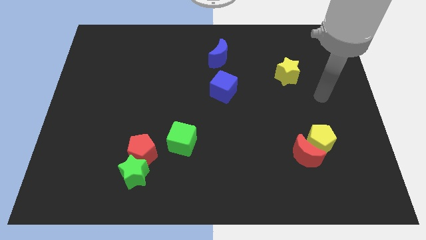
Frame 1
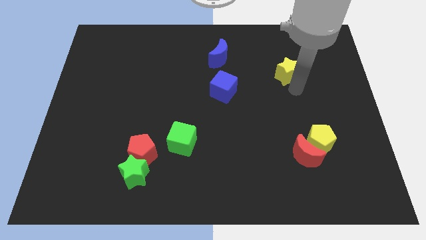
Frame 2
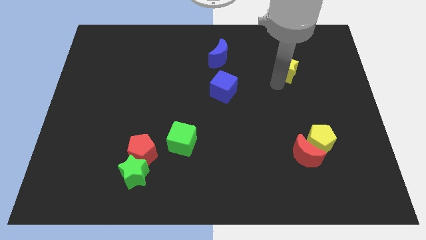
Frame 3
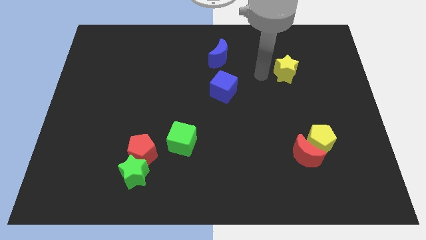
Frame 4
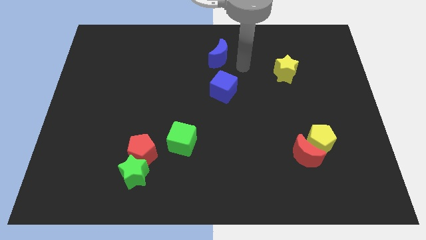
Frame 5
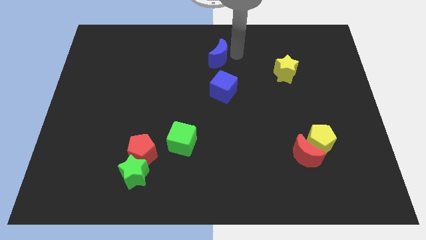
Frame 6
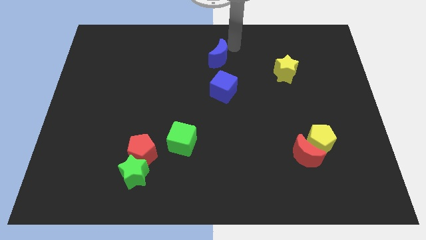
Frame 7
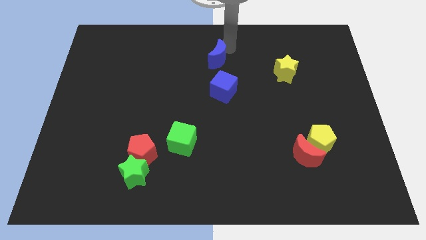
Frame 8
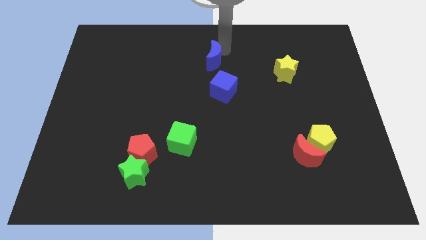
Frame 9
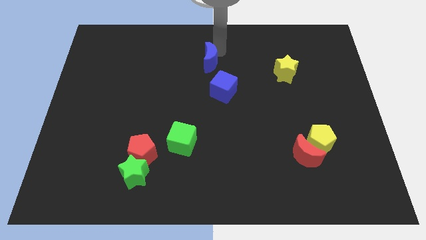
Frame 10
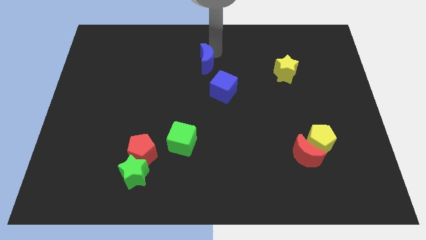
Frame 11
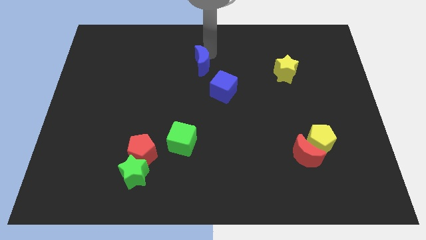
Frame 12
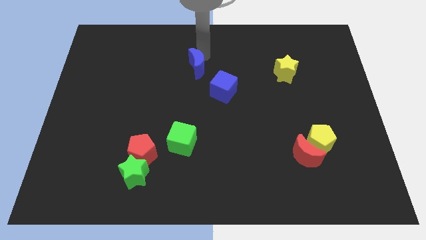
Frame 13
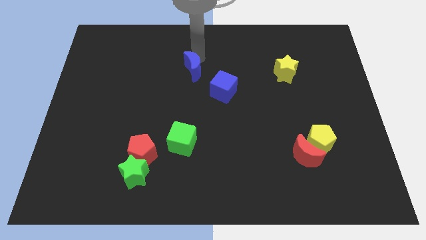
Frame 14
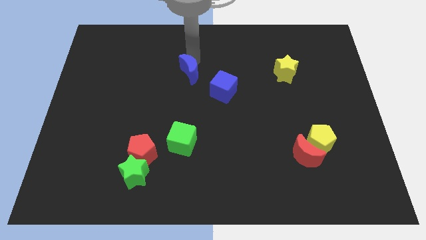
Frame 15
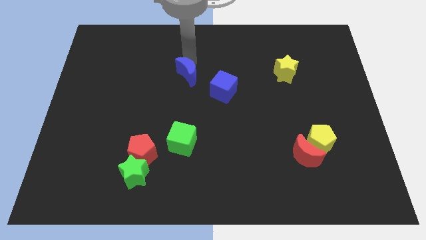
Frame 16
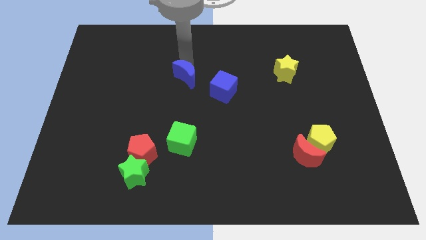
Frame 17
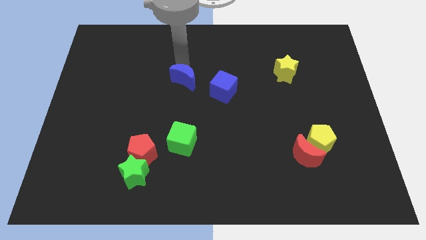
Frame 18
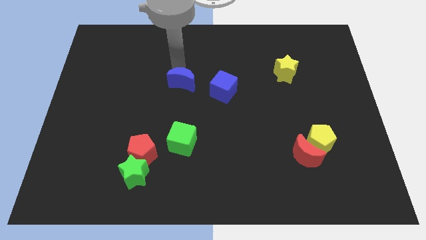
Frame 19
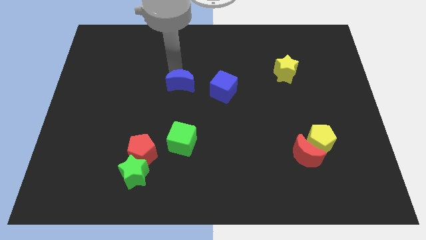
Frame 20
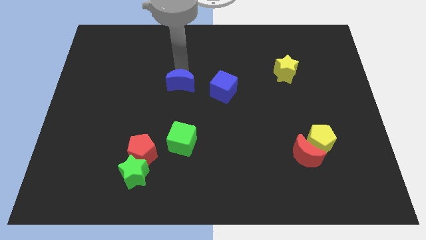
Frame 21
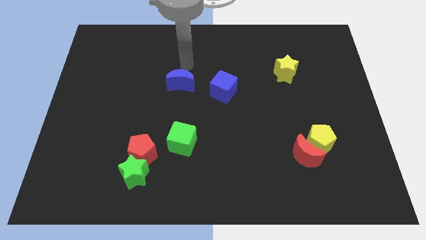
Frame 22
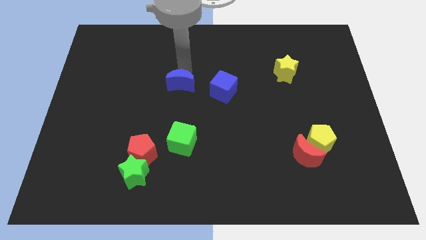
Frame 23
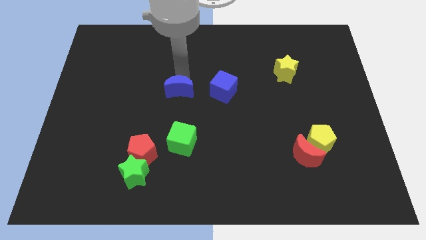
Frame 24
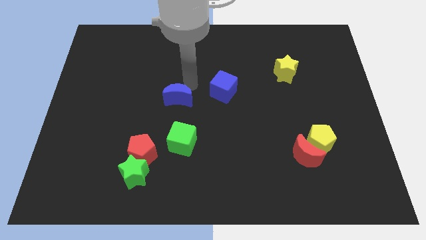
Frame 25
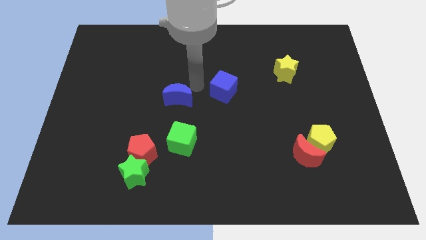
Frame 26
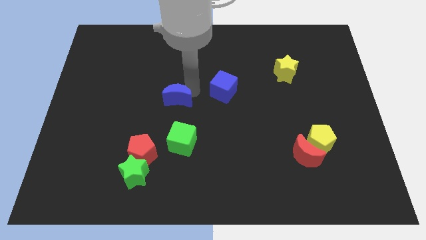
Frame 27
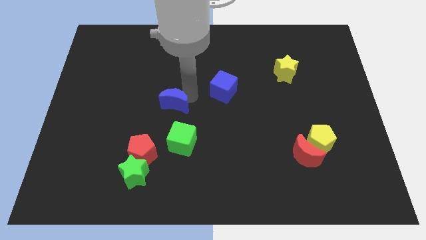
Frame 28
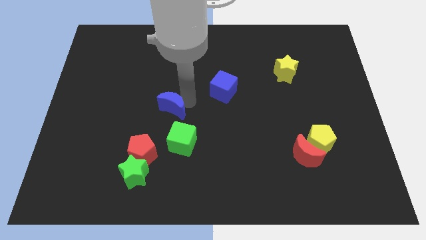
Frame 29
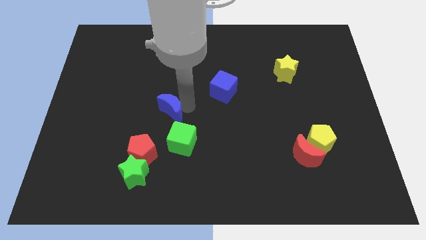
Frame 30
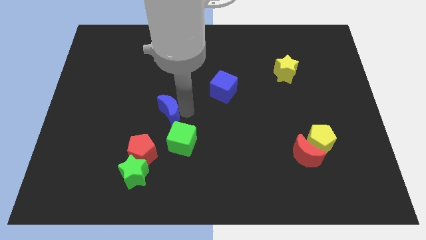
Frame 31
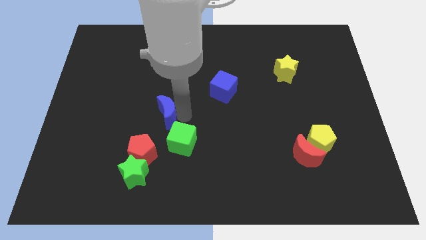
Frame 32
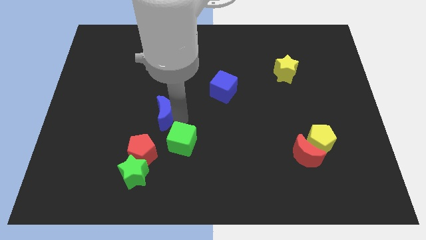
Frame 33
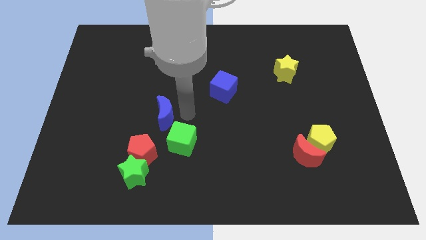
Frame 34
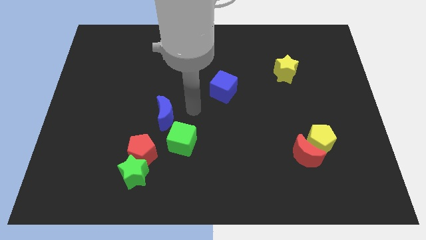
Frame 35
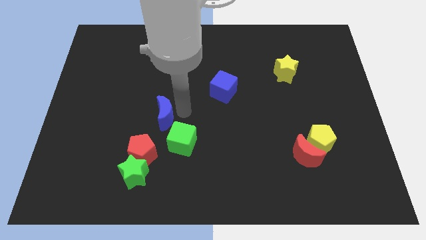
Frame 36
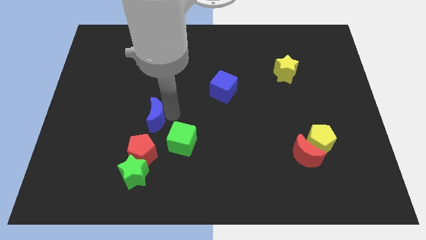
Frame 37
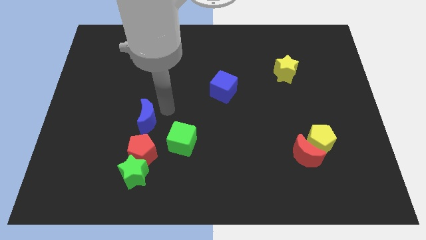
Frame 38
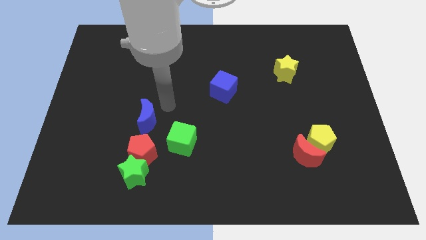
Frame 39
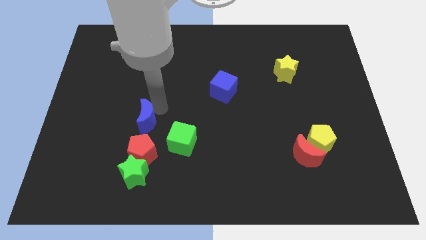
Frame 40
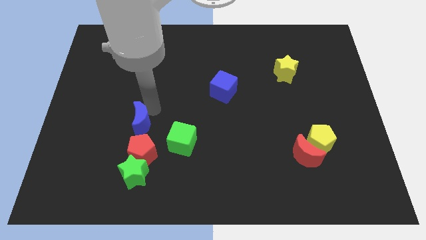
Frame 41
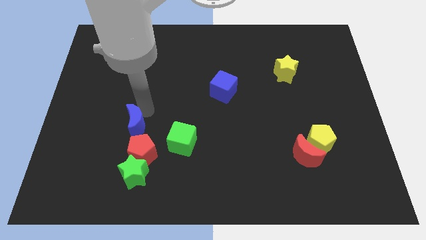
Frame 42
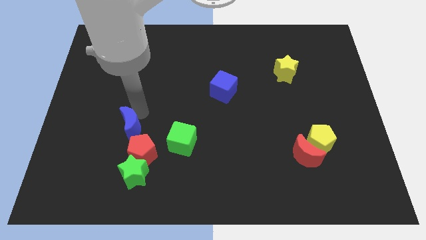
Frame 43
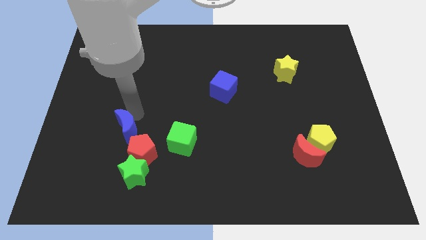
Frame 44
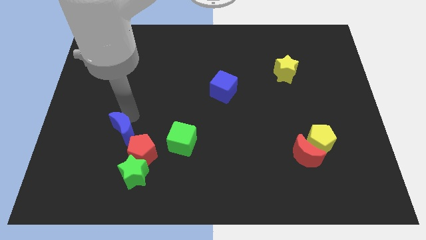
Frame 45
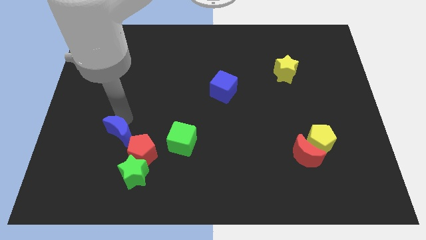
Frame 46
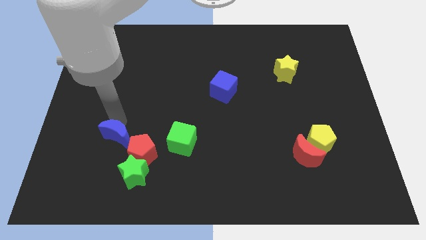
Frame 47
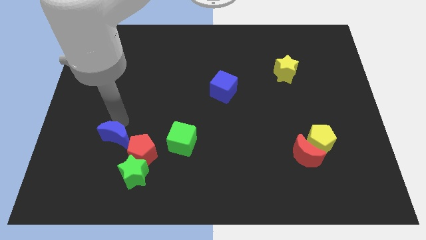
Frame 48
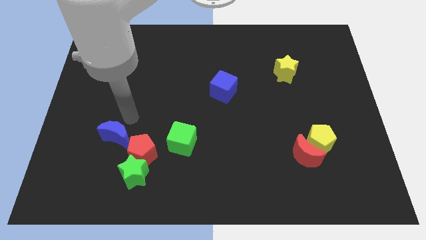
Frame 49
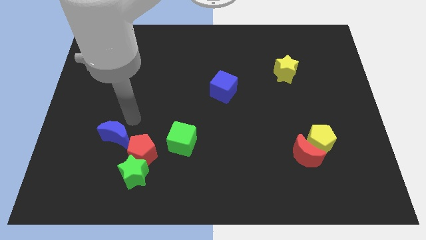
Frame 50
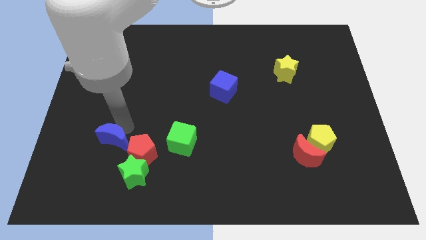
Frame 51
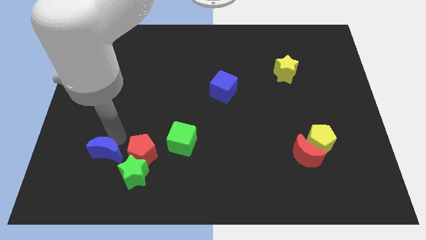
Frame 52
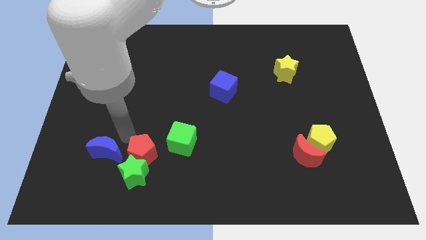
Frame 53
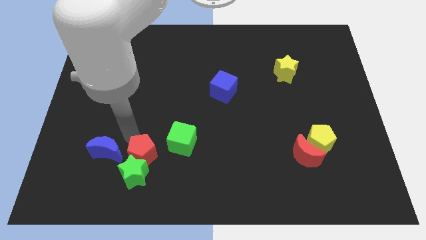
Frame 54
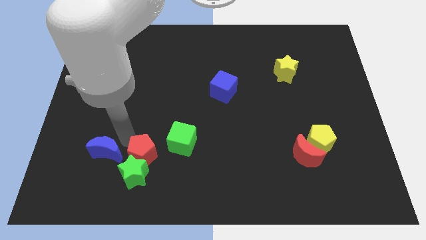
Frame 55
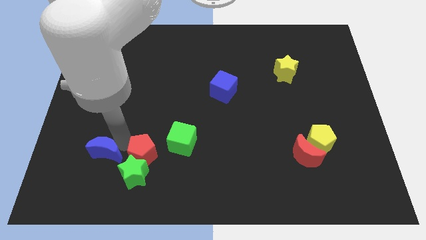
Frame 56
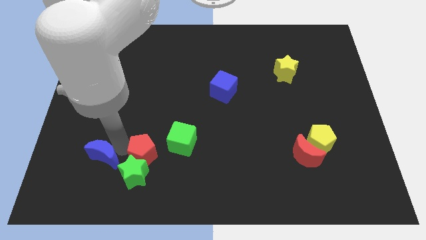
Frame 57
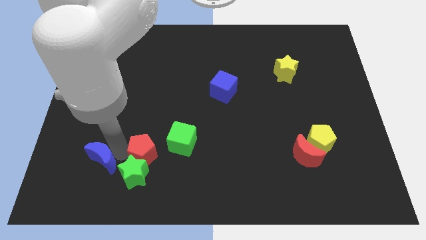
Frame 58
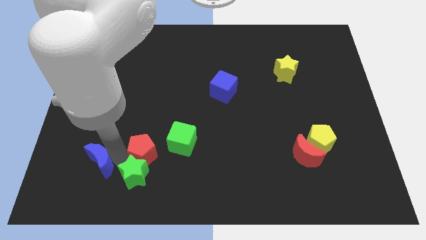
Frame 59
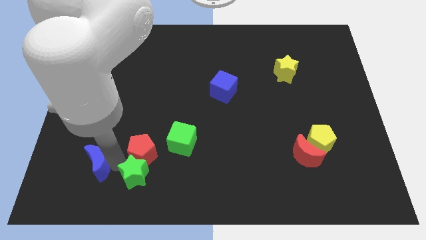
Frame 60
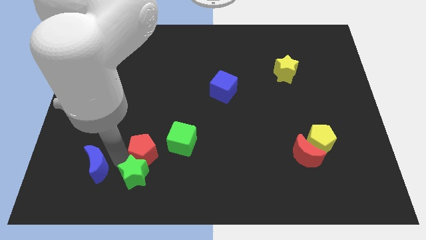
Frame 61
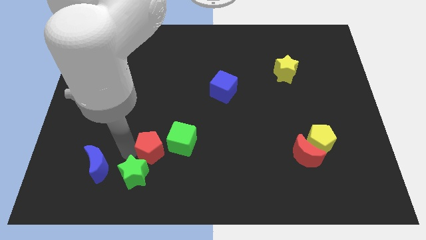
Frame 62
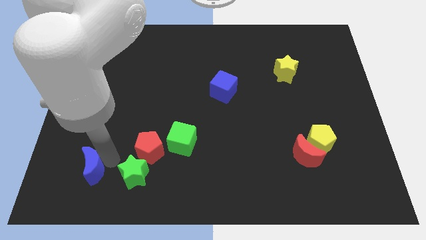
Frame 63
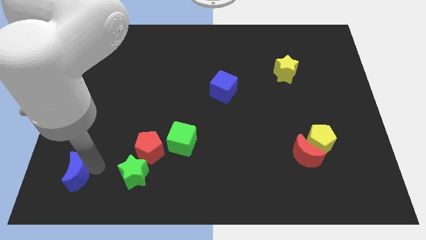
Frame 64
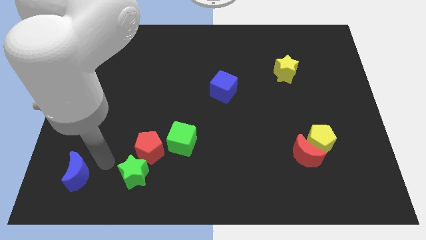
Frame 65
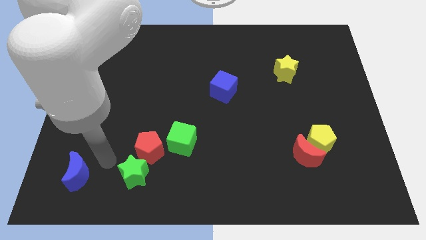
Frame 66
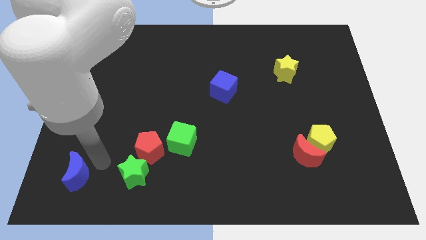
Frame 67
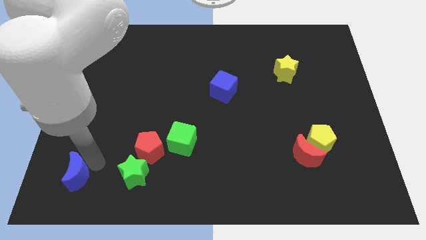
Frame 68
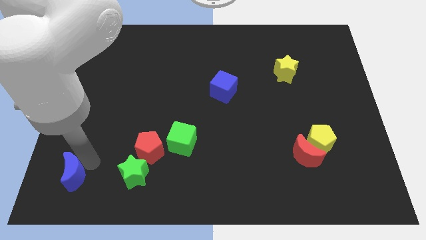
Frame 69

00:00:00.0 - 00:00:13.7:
slide the blue moon to the bottom left corner
